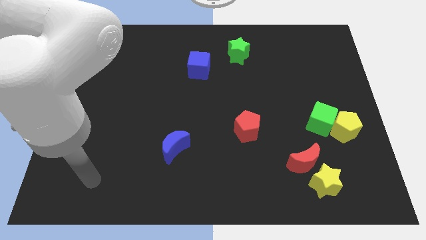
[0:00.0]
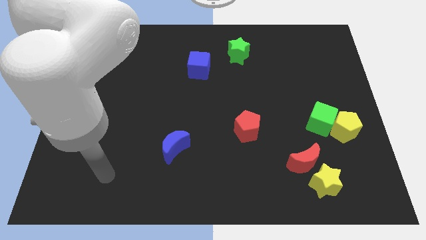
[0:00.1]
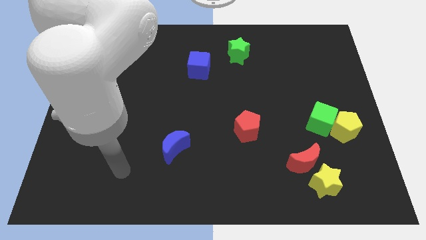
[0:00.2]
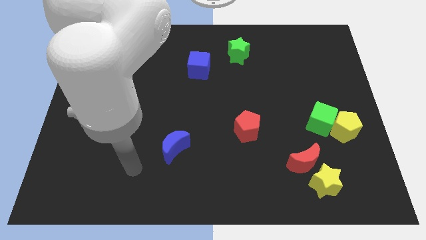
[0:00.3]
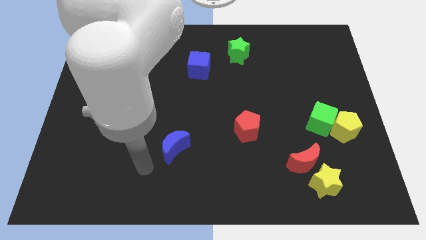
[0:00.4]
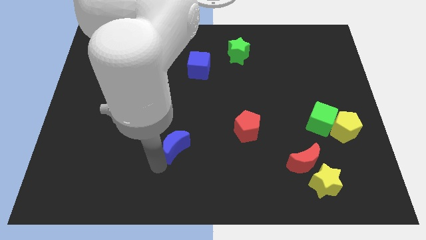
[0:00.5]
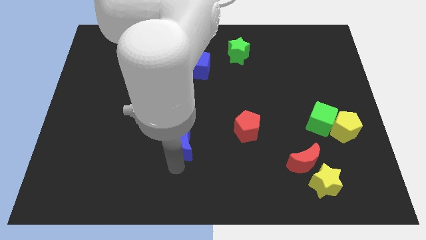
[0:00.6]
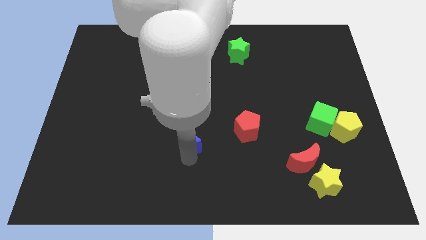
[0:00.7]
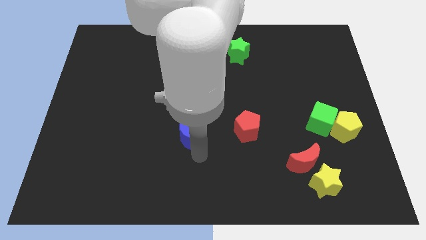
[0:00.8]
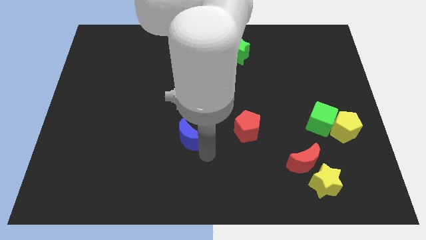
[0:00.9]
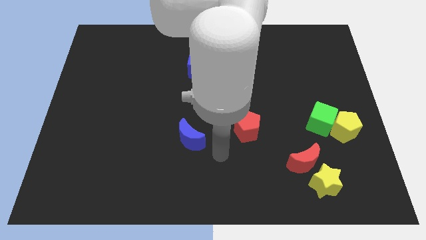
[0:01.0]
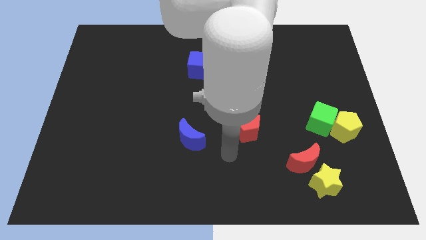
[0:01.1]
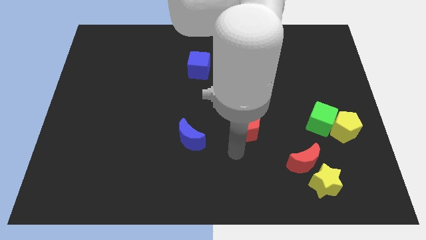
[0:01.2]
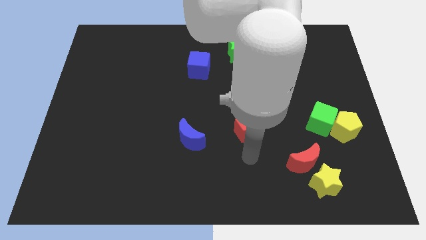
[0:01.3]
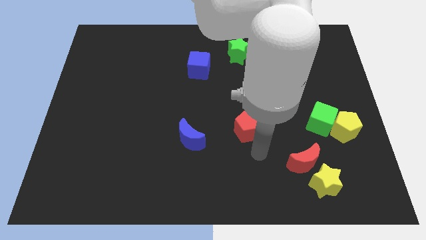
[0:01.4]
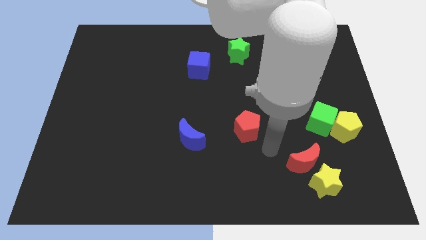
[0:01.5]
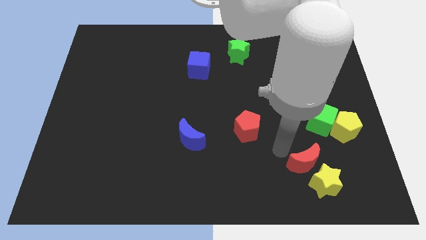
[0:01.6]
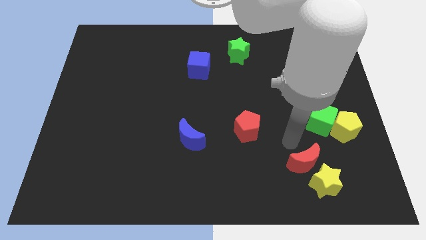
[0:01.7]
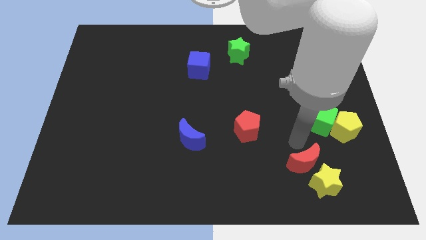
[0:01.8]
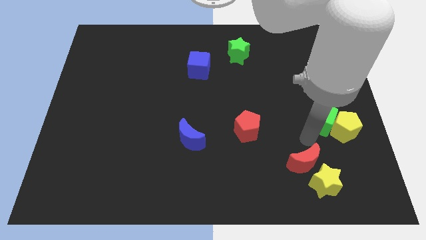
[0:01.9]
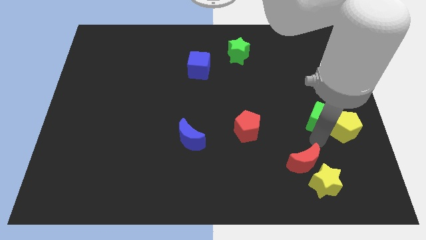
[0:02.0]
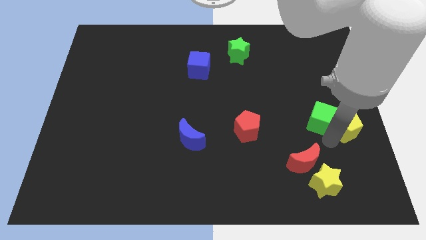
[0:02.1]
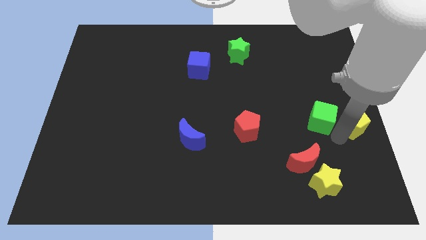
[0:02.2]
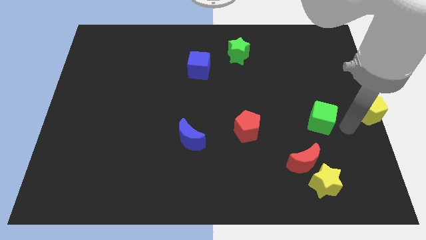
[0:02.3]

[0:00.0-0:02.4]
separate the green cube from the yellow pentagon

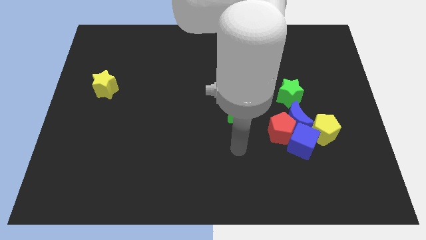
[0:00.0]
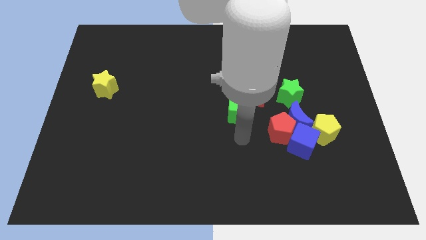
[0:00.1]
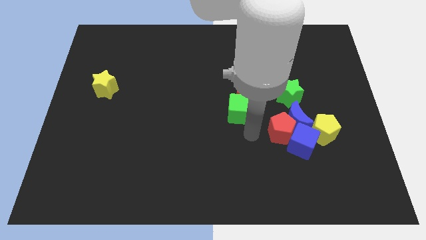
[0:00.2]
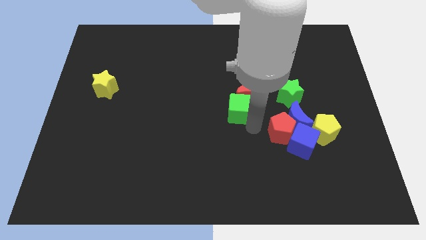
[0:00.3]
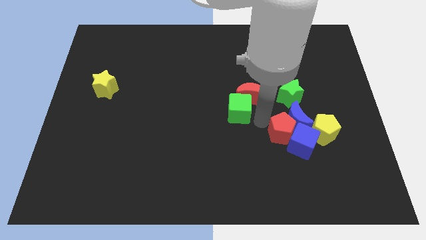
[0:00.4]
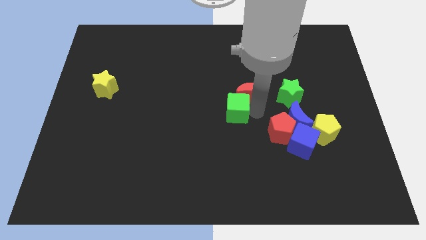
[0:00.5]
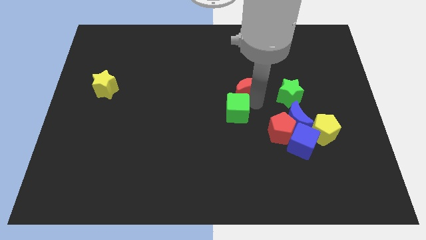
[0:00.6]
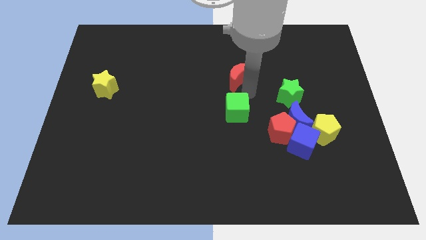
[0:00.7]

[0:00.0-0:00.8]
separate the green cube from the red moon

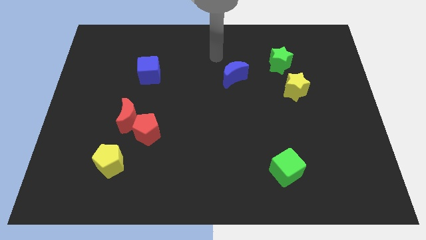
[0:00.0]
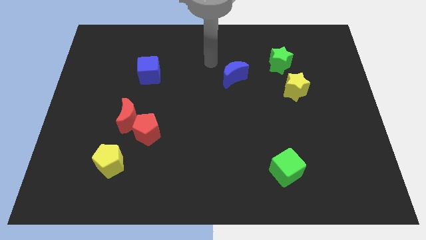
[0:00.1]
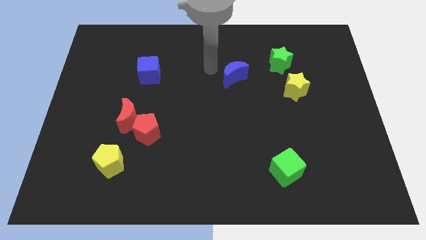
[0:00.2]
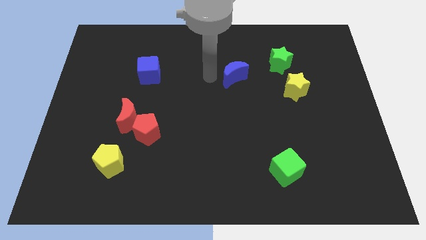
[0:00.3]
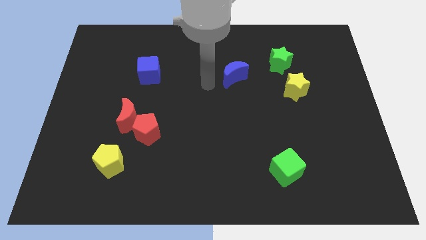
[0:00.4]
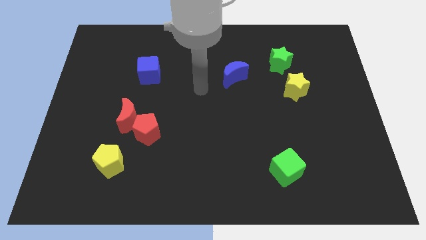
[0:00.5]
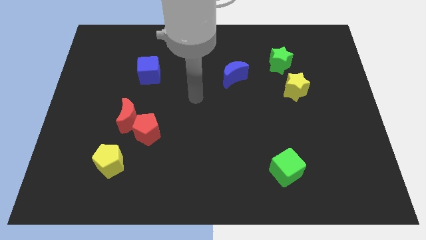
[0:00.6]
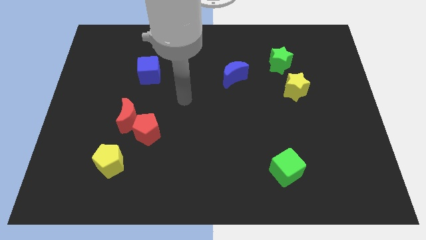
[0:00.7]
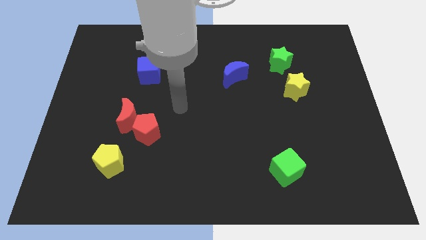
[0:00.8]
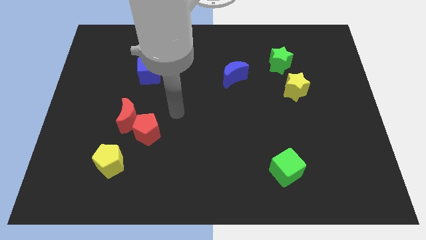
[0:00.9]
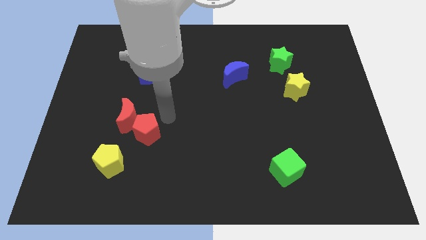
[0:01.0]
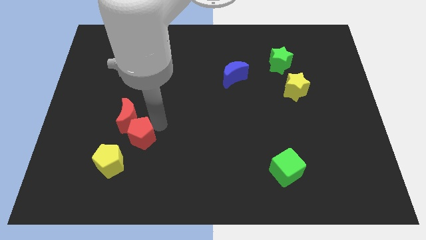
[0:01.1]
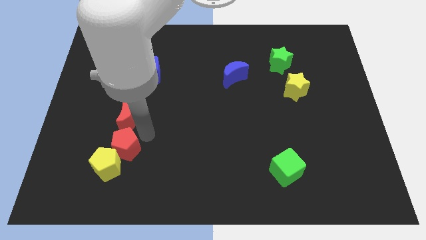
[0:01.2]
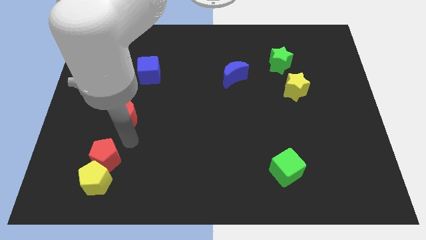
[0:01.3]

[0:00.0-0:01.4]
separate the red moon from the red pentagon

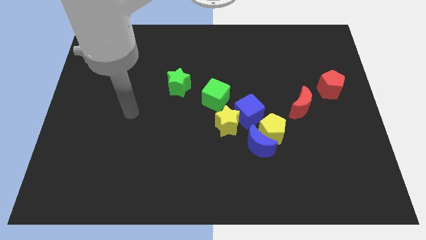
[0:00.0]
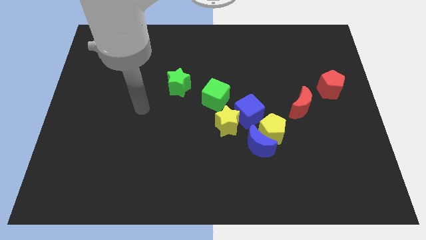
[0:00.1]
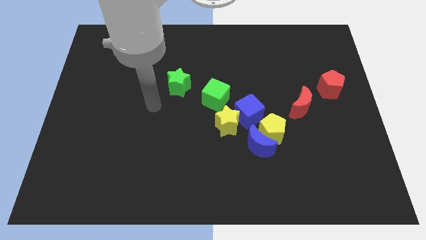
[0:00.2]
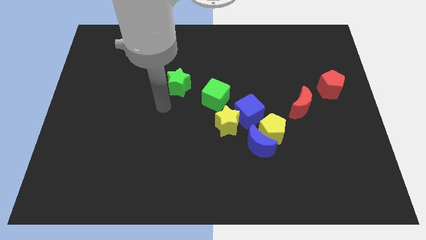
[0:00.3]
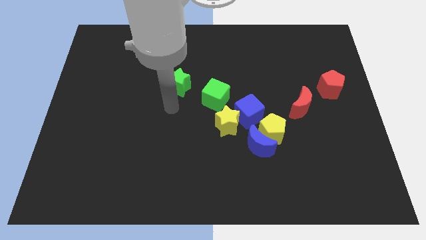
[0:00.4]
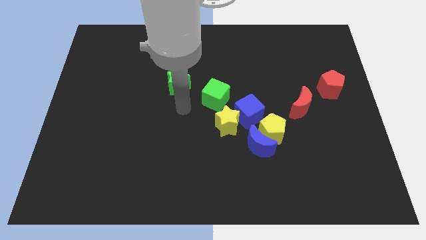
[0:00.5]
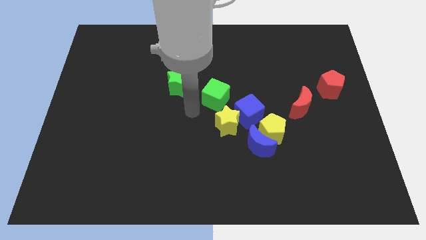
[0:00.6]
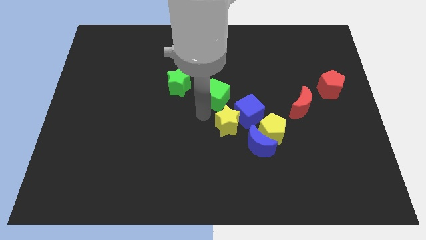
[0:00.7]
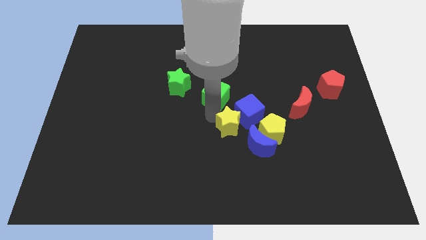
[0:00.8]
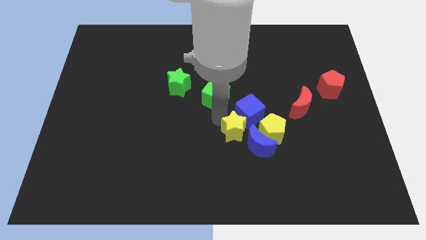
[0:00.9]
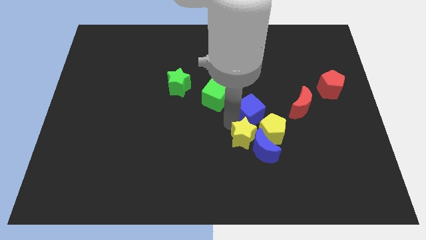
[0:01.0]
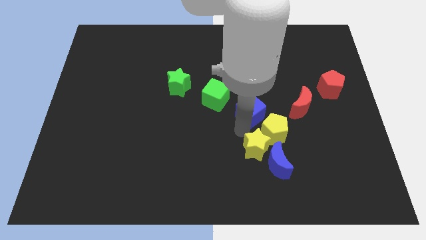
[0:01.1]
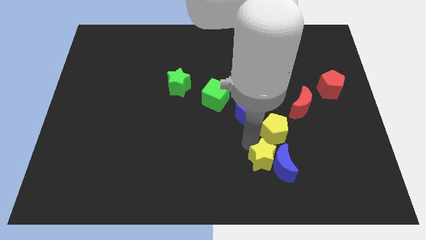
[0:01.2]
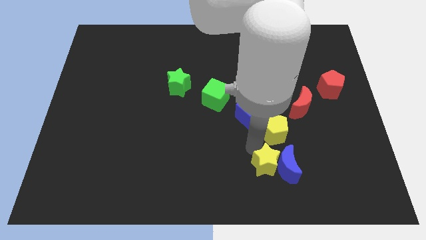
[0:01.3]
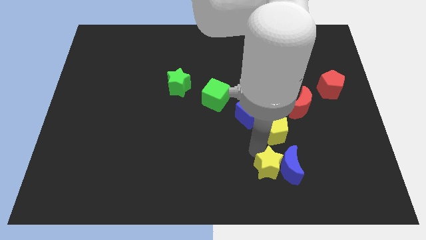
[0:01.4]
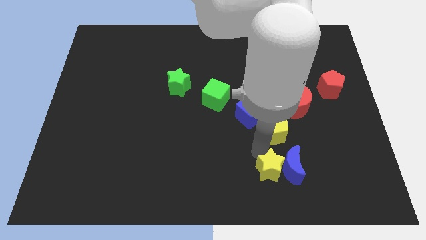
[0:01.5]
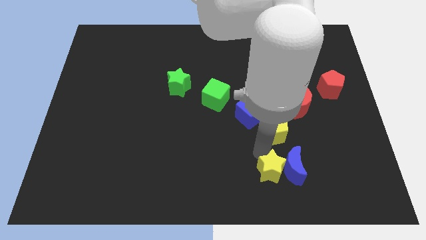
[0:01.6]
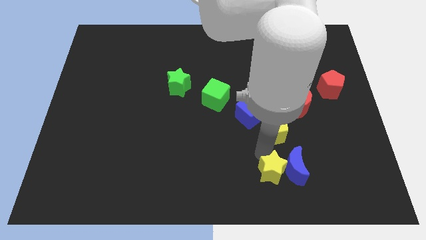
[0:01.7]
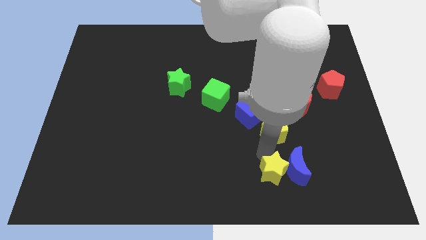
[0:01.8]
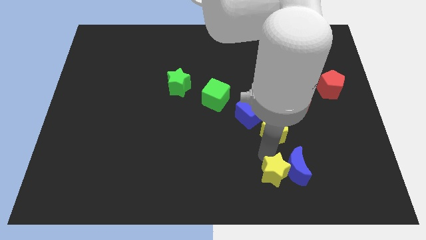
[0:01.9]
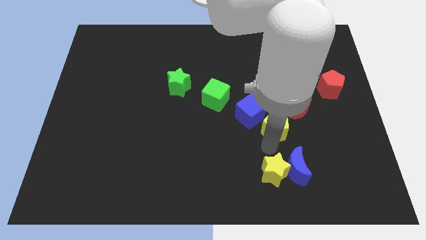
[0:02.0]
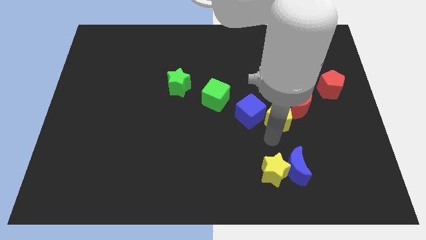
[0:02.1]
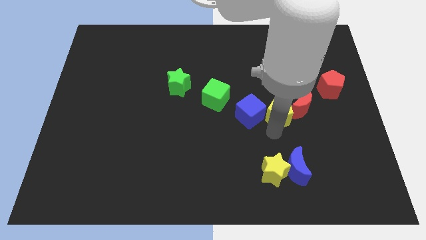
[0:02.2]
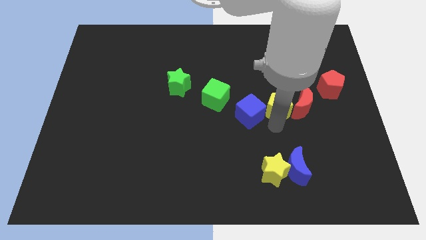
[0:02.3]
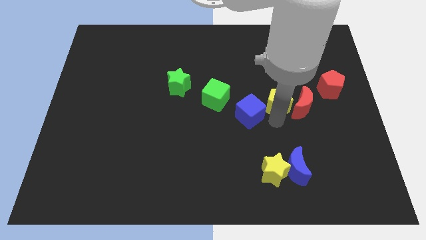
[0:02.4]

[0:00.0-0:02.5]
pull the yellow pentagon apart from the blue moon and blue cube

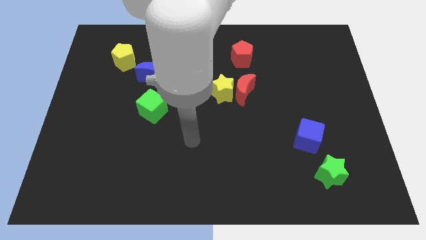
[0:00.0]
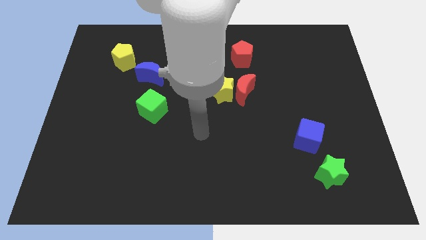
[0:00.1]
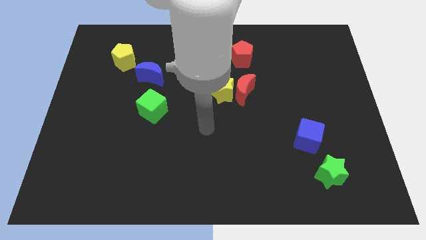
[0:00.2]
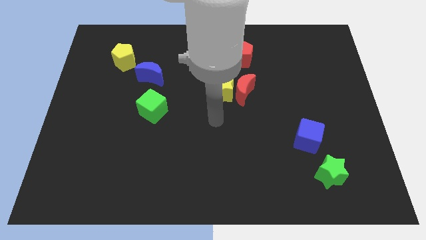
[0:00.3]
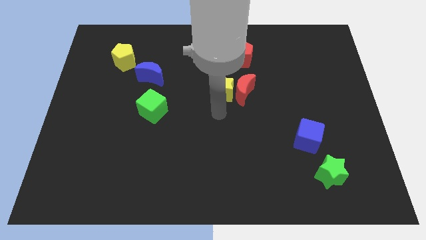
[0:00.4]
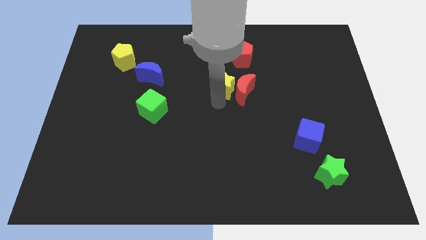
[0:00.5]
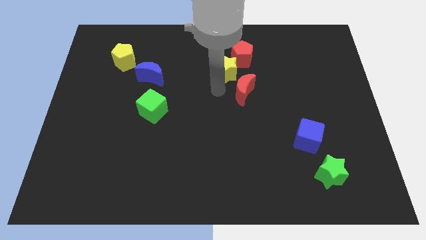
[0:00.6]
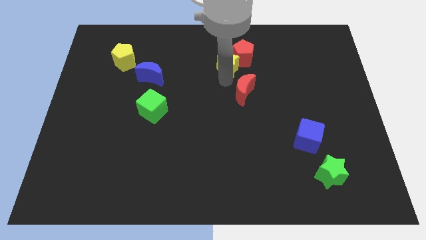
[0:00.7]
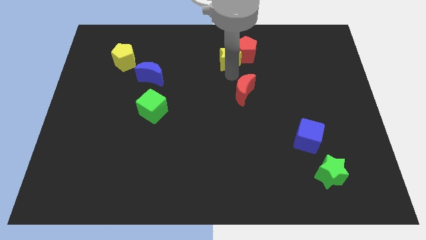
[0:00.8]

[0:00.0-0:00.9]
pull the red moon apart from the yellow star

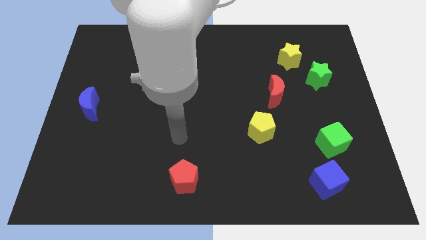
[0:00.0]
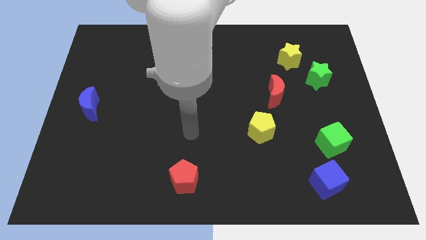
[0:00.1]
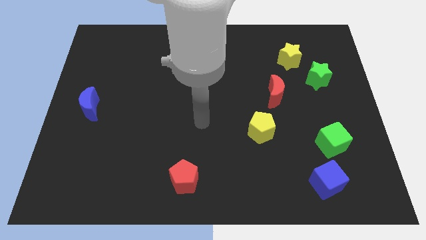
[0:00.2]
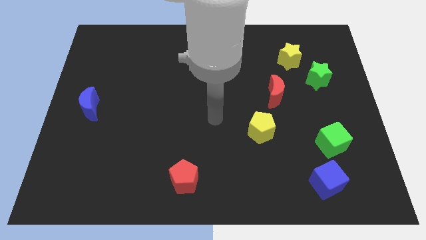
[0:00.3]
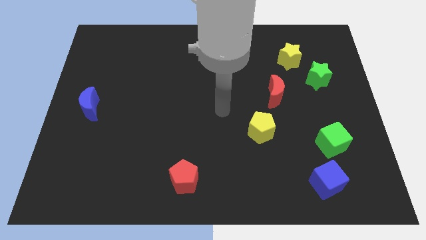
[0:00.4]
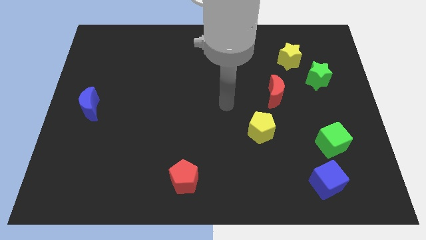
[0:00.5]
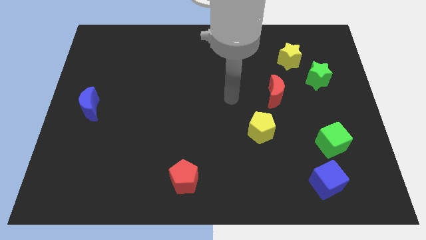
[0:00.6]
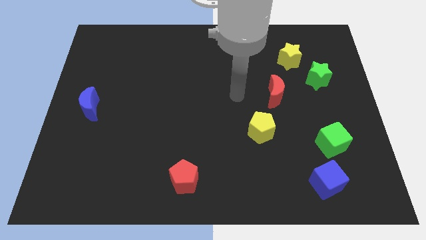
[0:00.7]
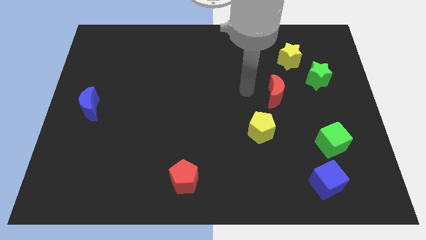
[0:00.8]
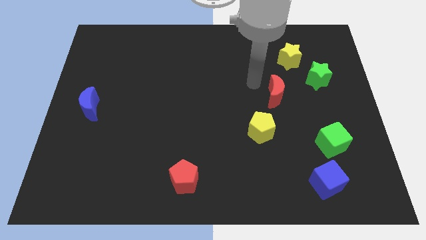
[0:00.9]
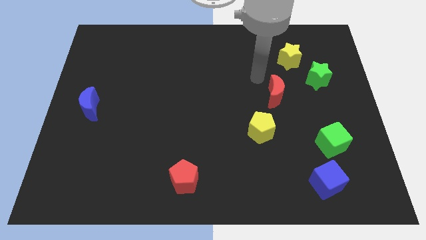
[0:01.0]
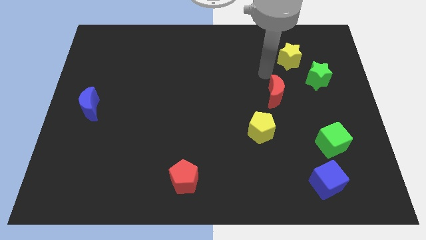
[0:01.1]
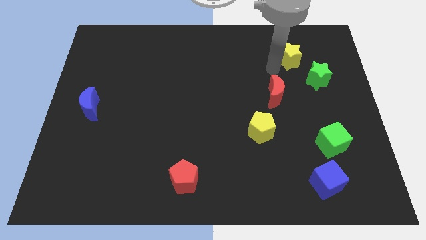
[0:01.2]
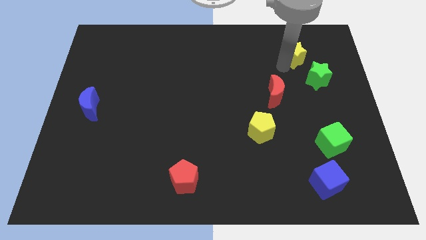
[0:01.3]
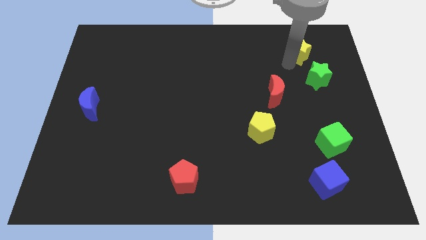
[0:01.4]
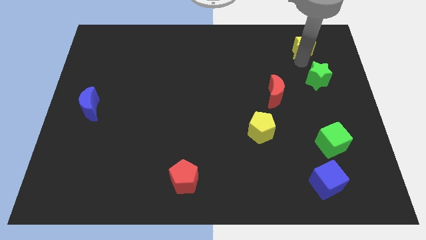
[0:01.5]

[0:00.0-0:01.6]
move the green star away from the yellow star
